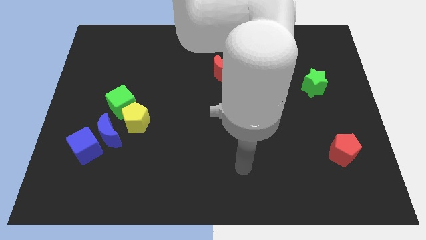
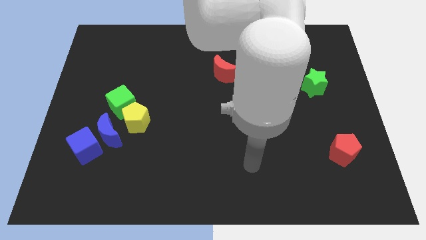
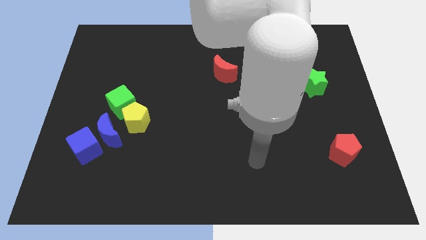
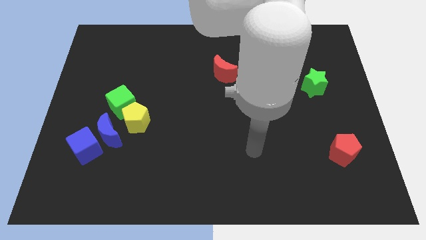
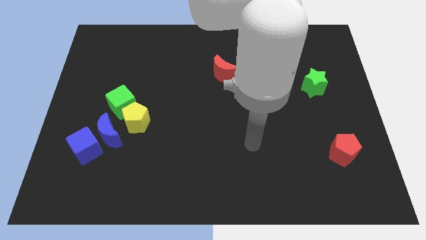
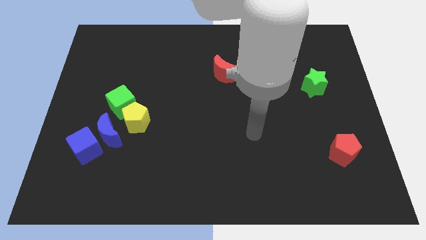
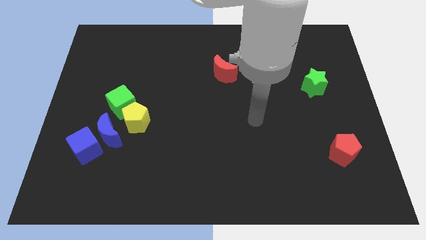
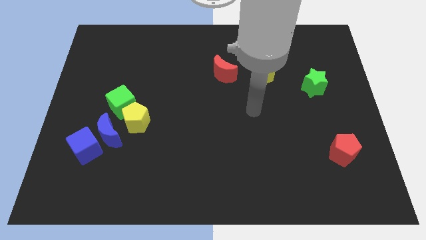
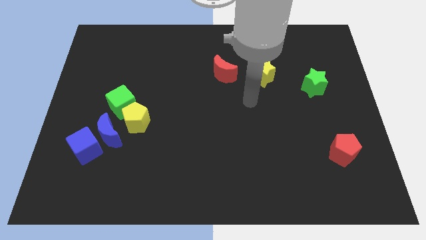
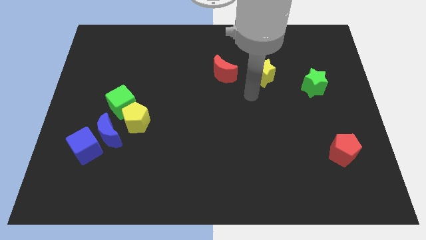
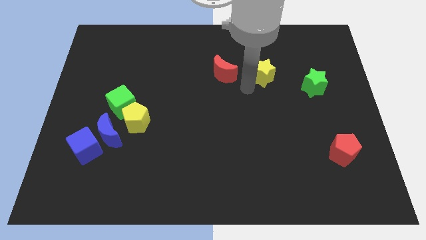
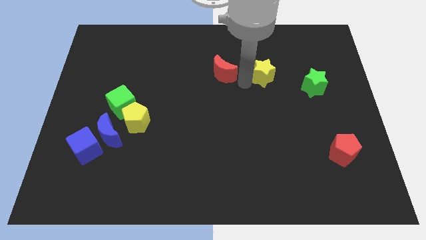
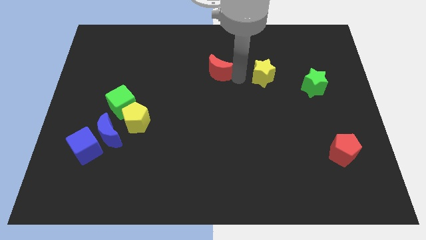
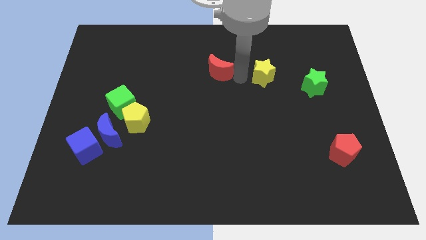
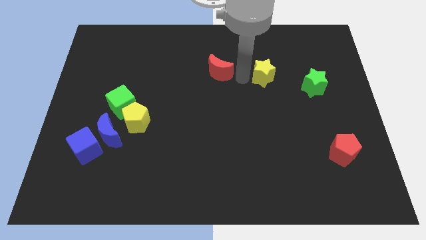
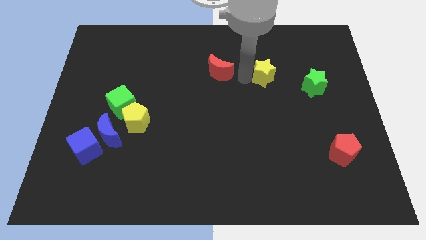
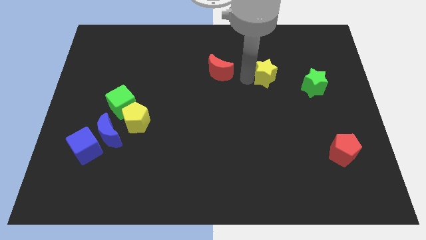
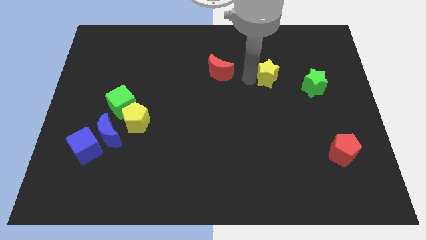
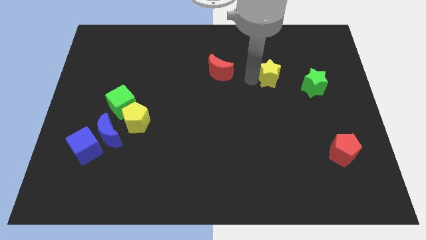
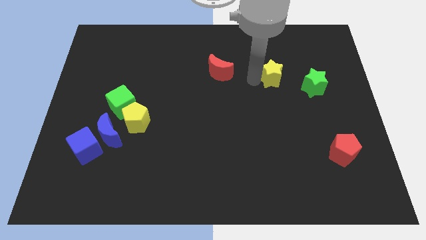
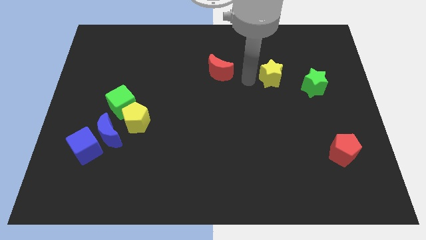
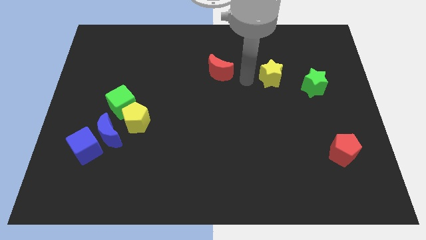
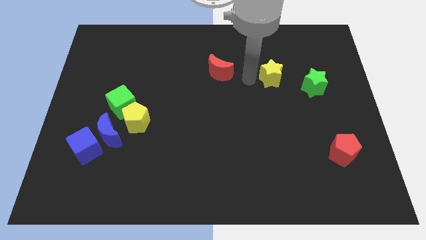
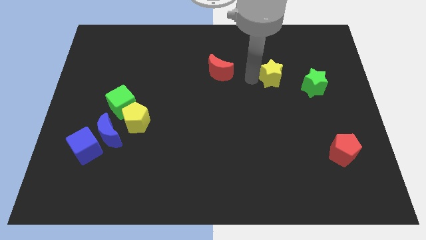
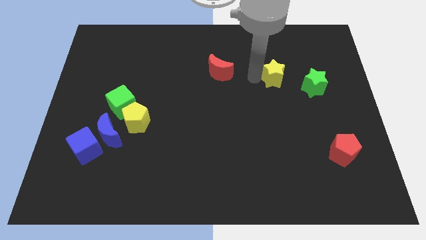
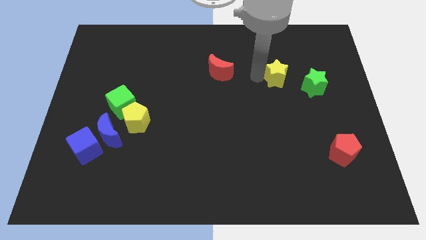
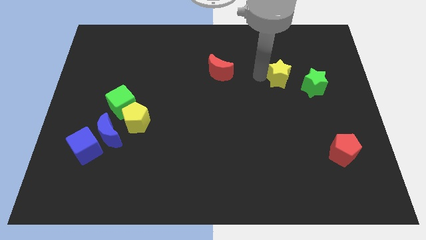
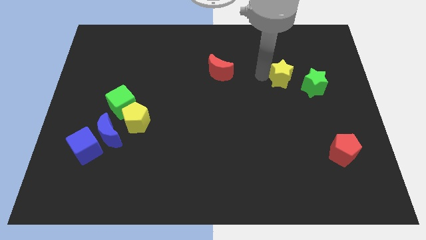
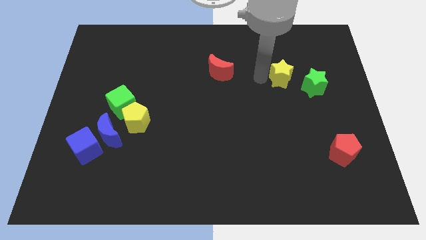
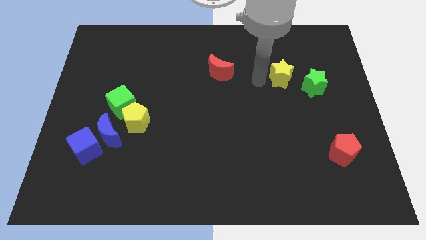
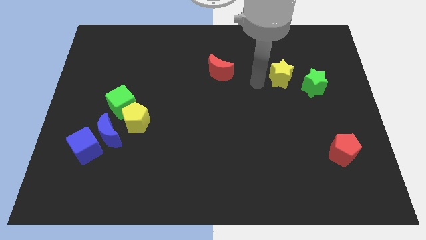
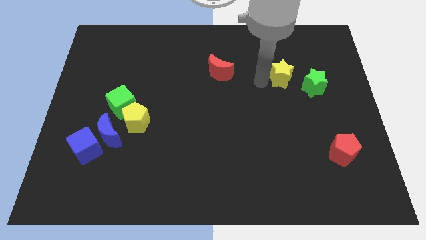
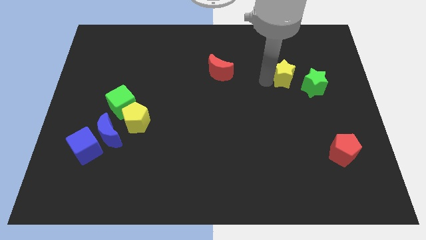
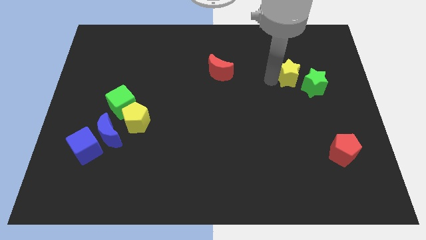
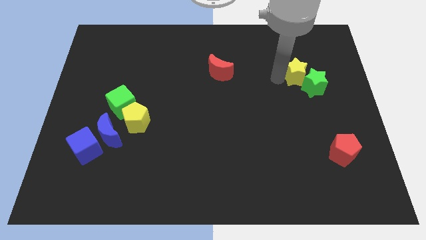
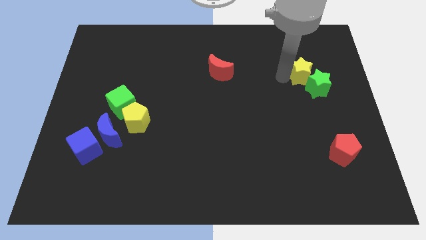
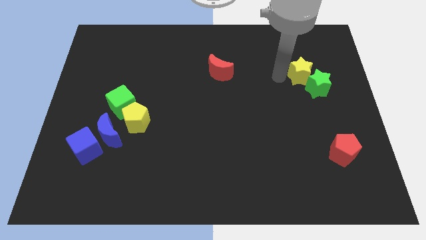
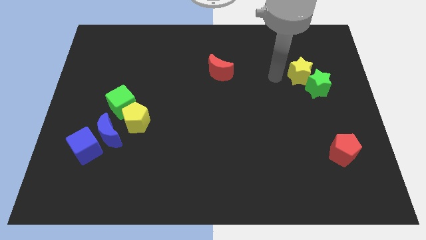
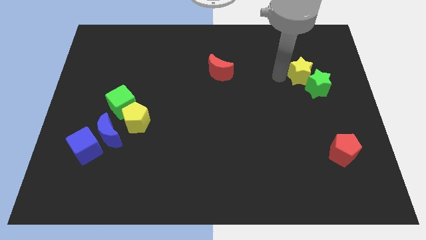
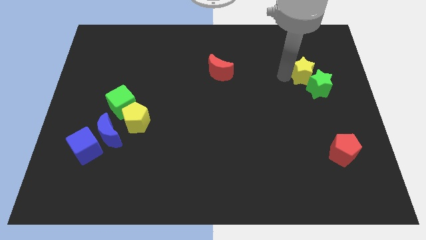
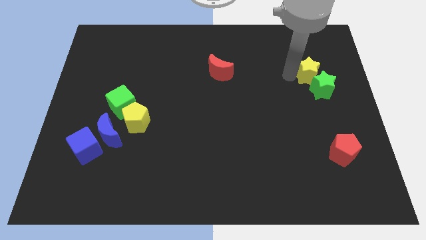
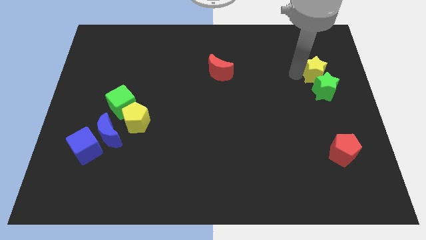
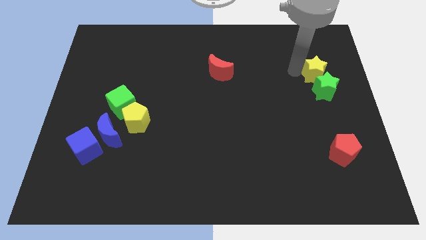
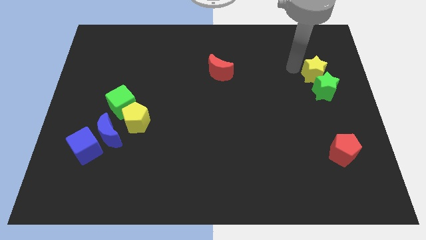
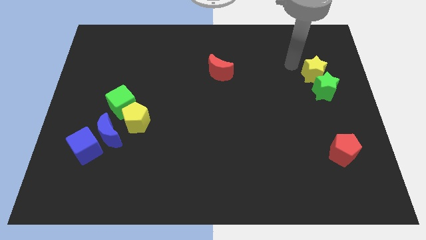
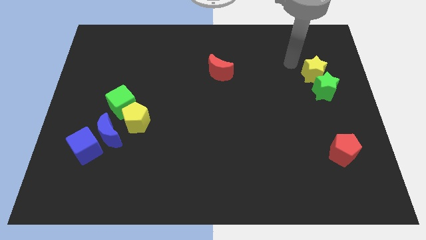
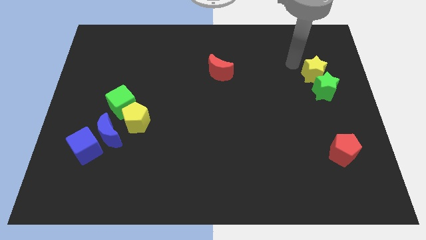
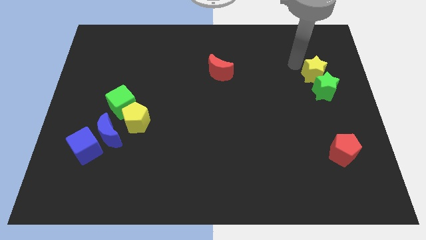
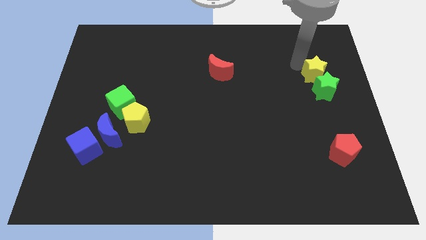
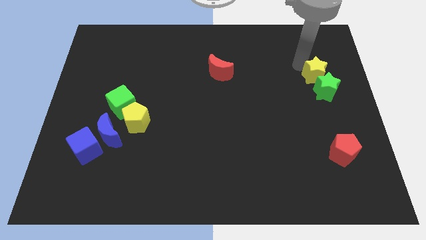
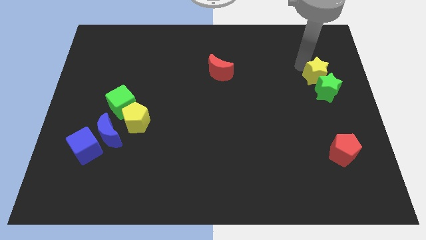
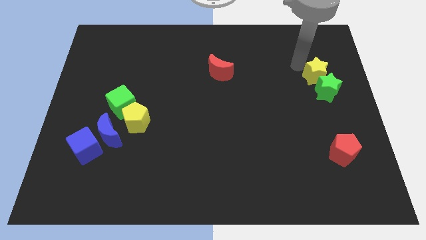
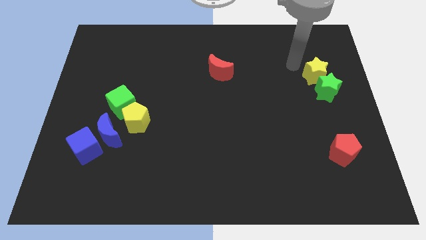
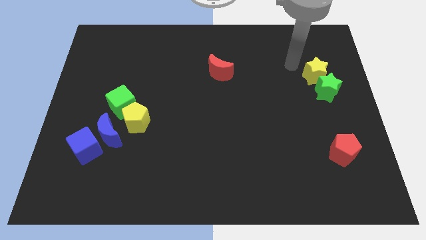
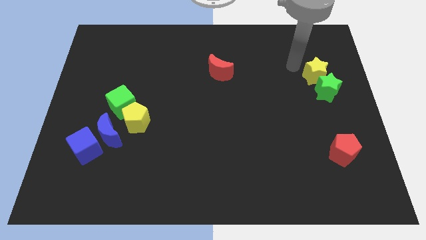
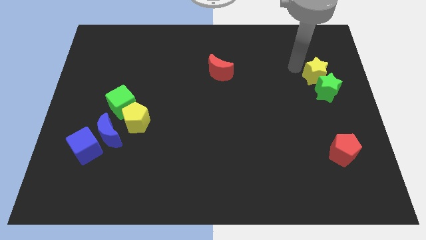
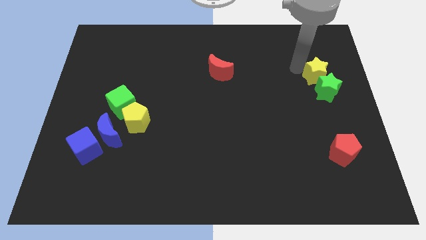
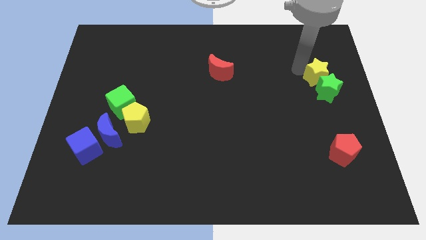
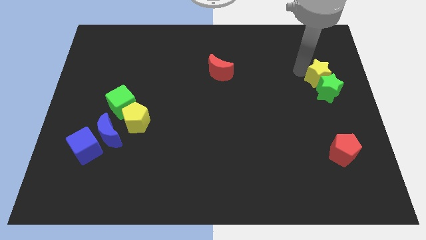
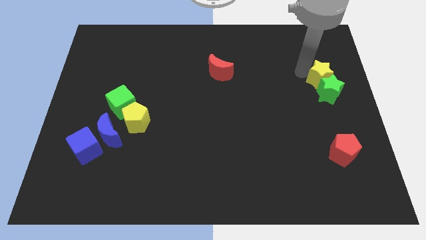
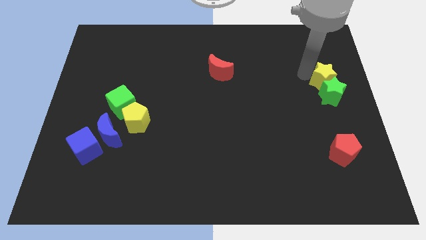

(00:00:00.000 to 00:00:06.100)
put the yellow star to the right side of the board
